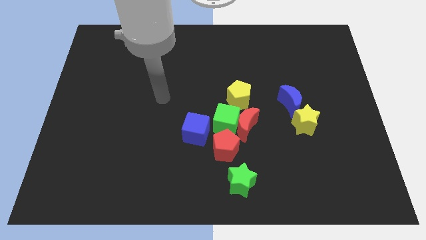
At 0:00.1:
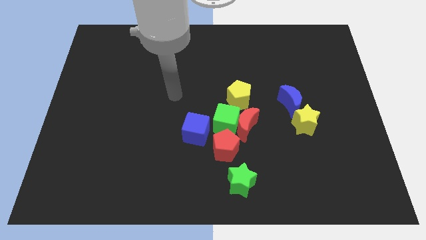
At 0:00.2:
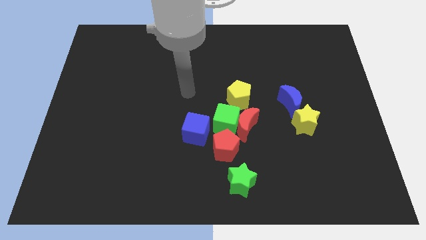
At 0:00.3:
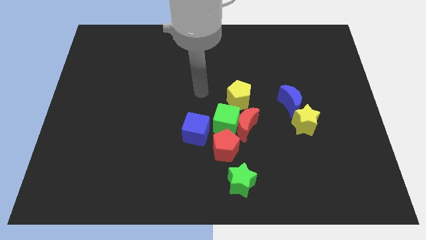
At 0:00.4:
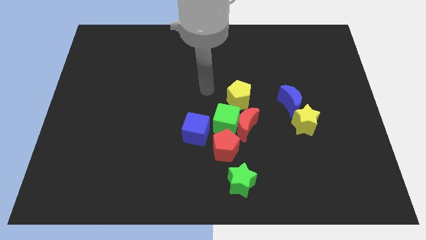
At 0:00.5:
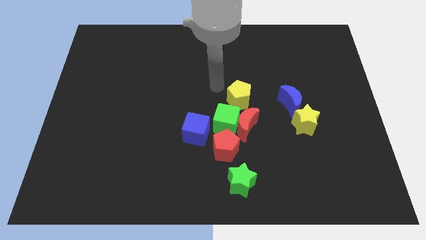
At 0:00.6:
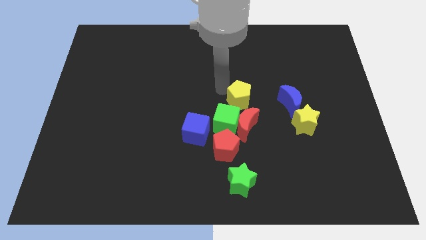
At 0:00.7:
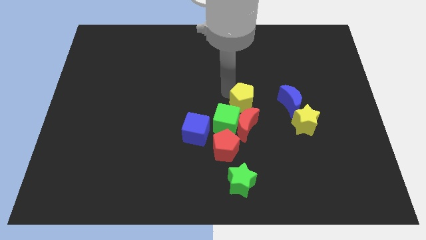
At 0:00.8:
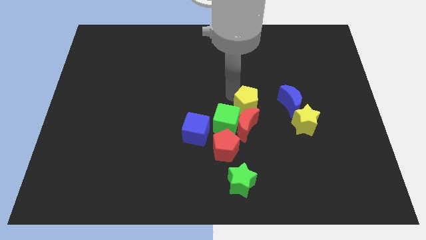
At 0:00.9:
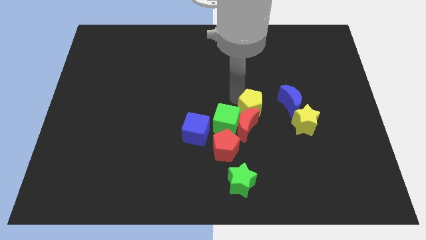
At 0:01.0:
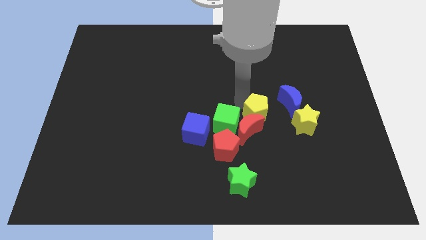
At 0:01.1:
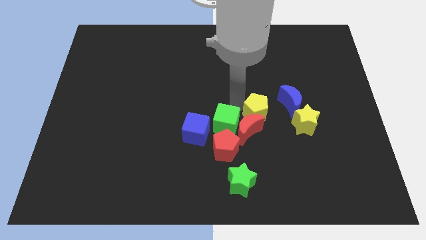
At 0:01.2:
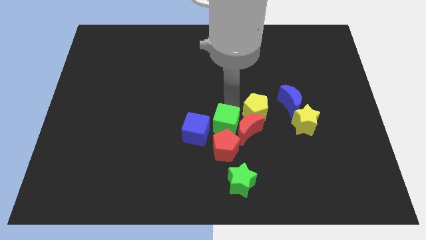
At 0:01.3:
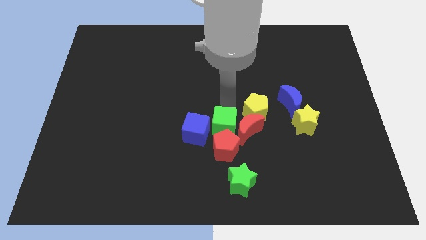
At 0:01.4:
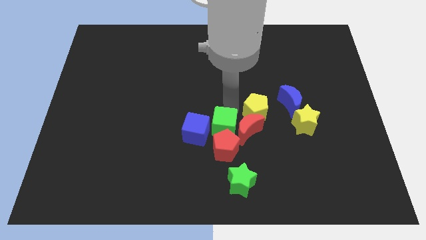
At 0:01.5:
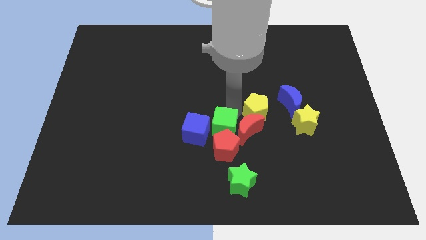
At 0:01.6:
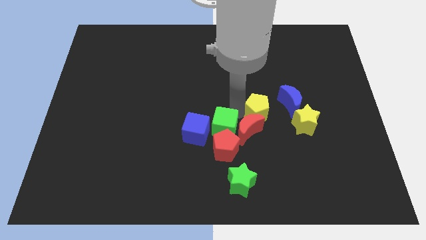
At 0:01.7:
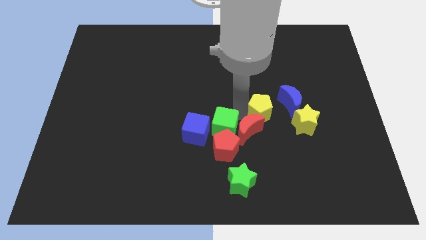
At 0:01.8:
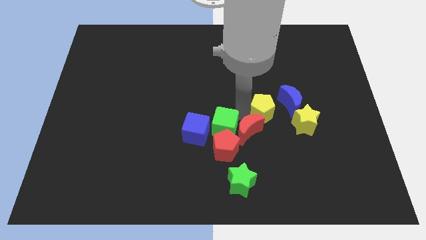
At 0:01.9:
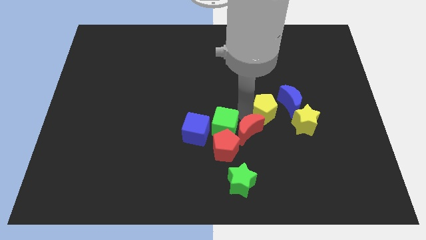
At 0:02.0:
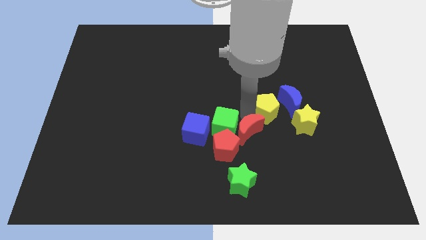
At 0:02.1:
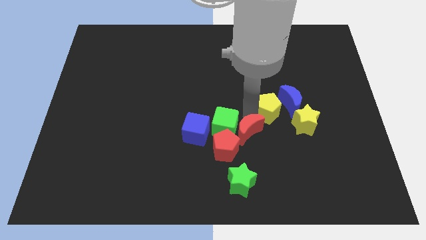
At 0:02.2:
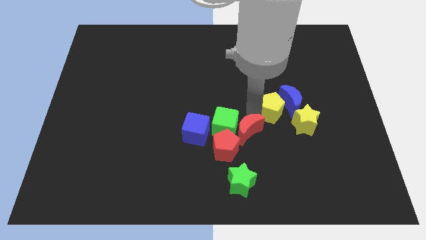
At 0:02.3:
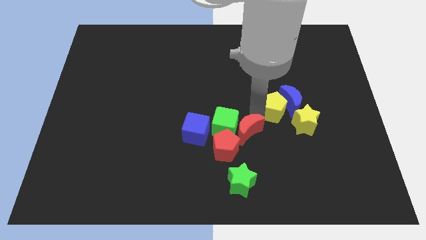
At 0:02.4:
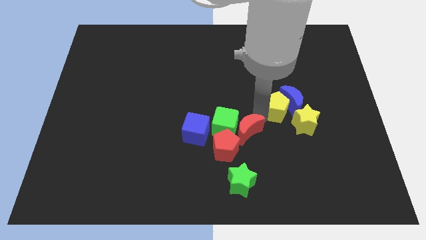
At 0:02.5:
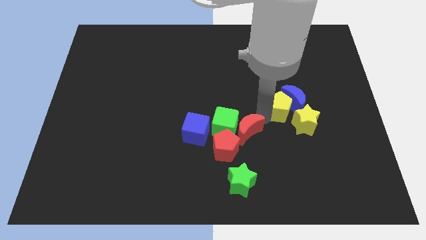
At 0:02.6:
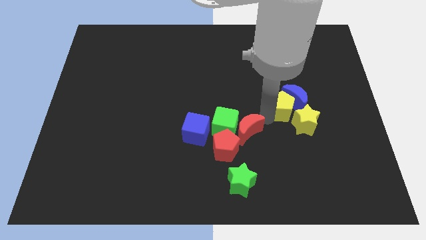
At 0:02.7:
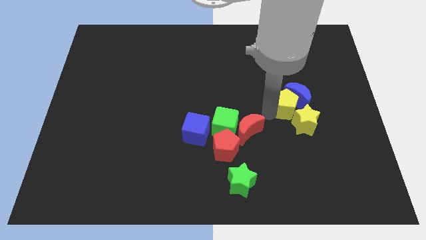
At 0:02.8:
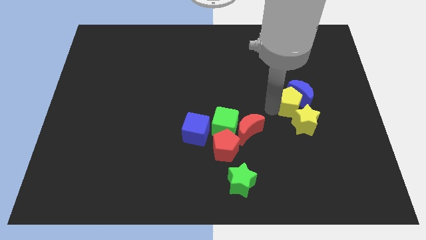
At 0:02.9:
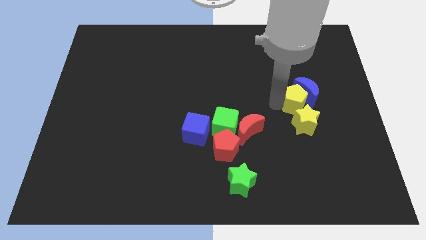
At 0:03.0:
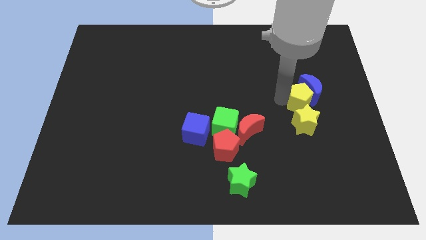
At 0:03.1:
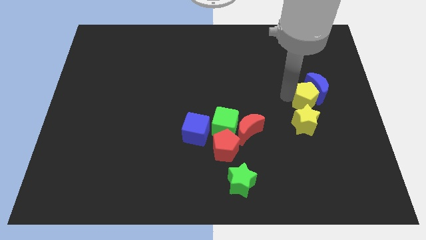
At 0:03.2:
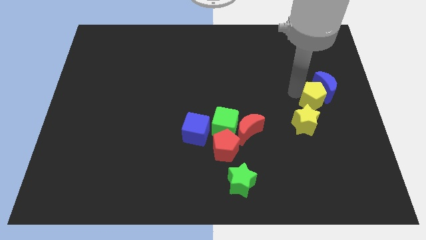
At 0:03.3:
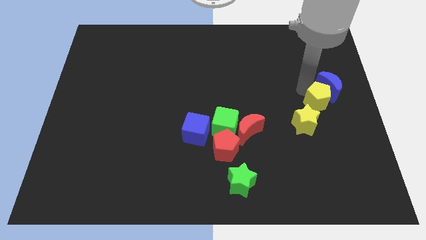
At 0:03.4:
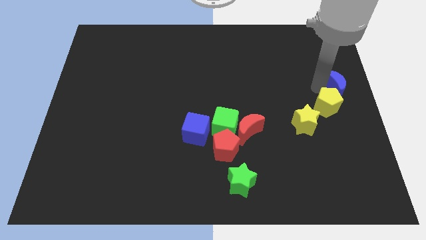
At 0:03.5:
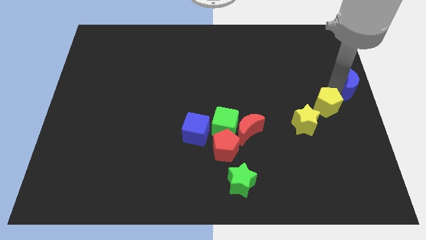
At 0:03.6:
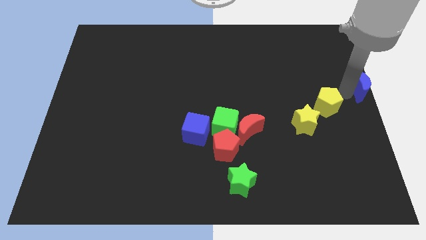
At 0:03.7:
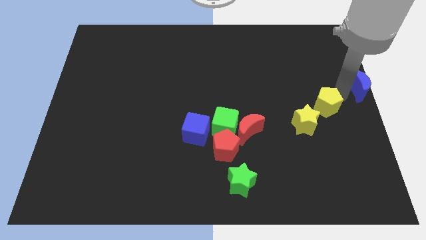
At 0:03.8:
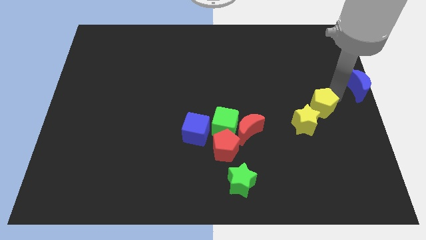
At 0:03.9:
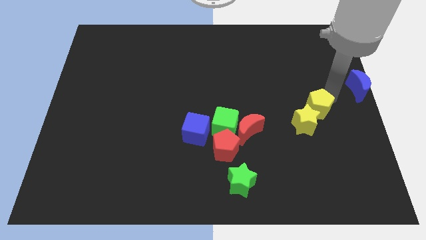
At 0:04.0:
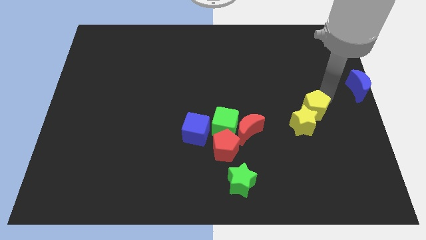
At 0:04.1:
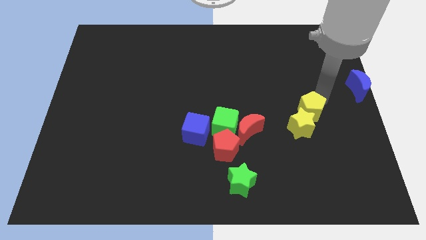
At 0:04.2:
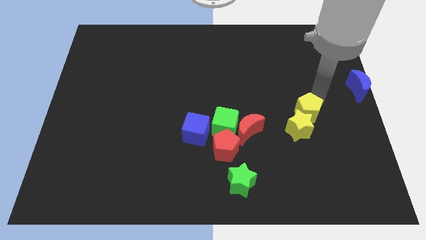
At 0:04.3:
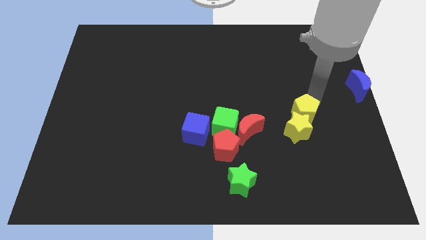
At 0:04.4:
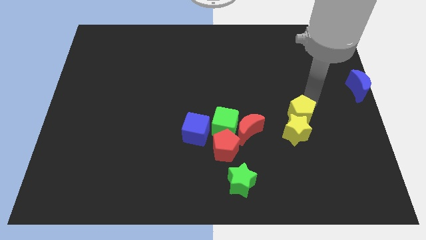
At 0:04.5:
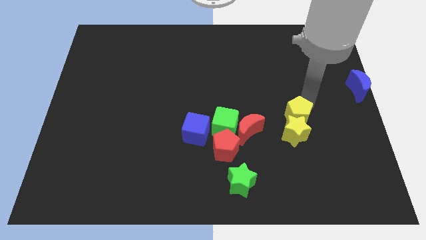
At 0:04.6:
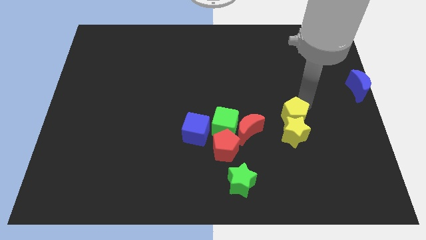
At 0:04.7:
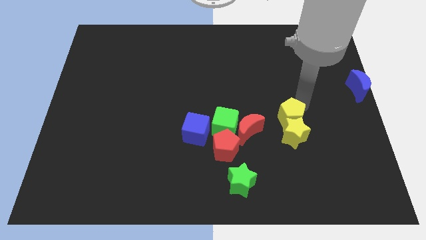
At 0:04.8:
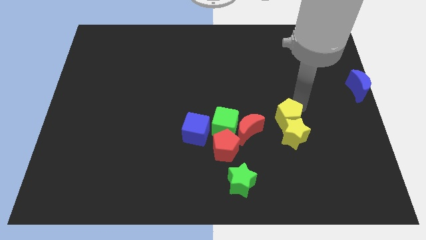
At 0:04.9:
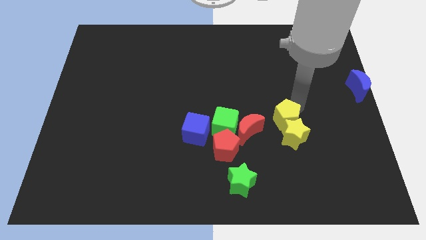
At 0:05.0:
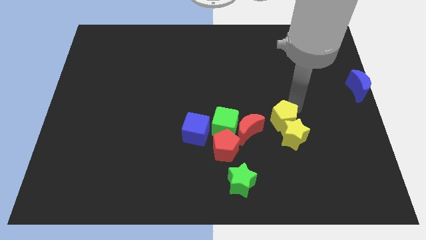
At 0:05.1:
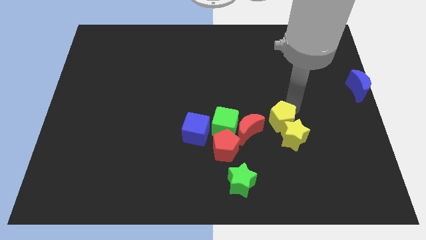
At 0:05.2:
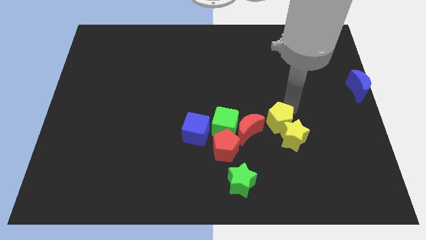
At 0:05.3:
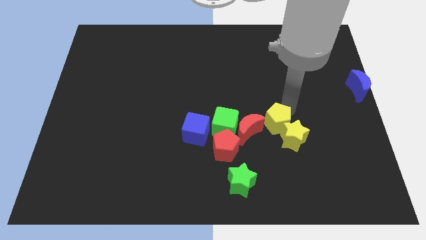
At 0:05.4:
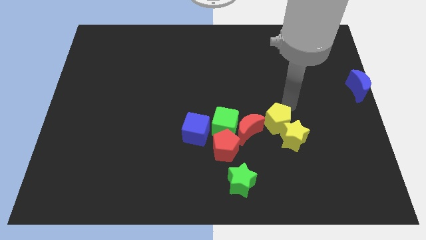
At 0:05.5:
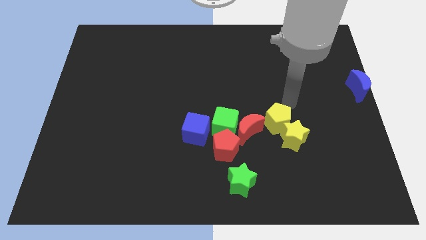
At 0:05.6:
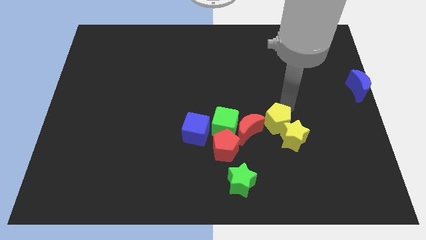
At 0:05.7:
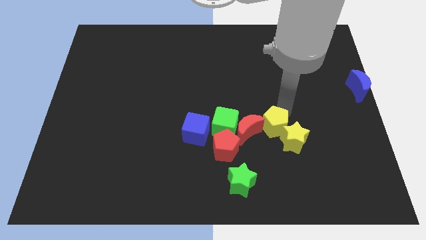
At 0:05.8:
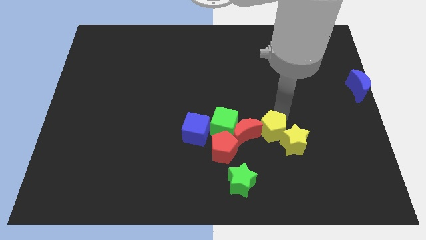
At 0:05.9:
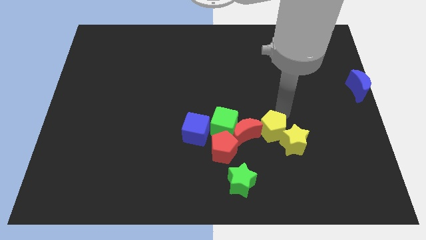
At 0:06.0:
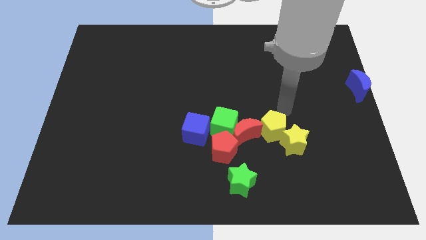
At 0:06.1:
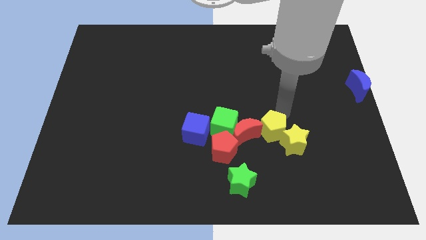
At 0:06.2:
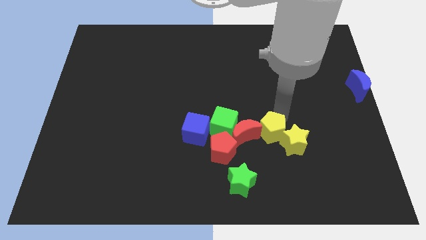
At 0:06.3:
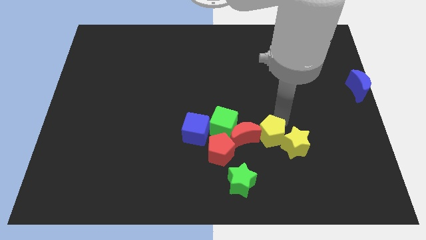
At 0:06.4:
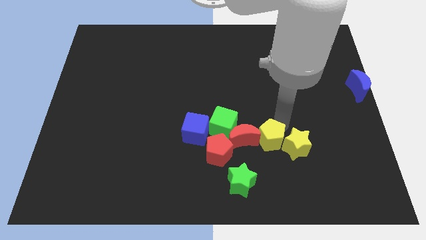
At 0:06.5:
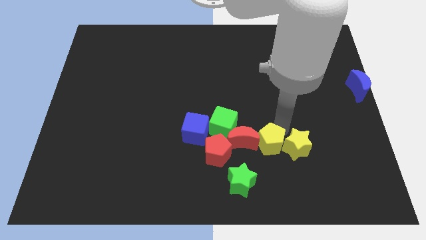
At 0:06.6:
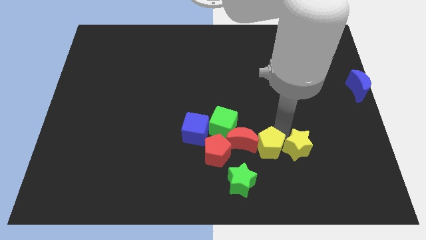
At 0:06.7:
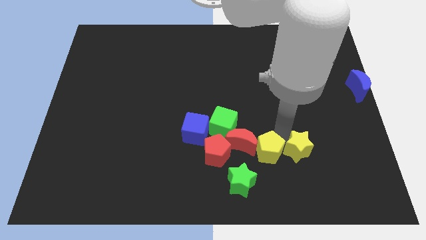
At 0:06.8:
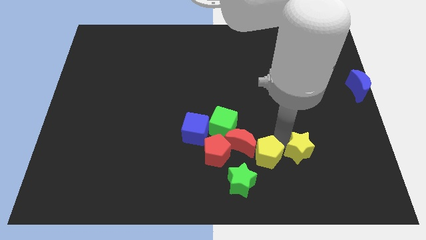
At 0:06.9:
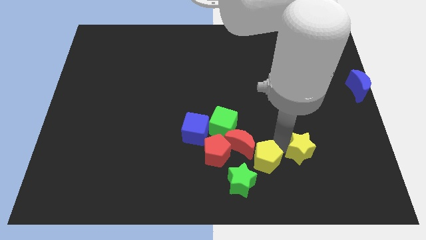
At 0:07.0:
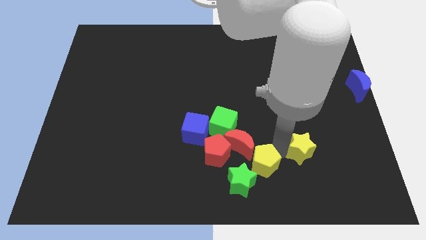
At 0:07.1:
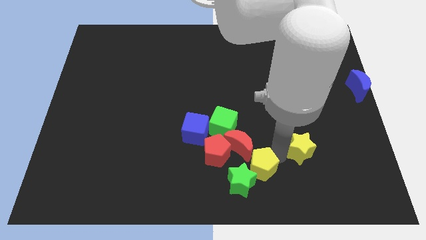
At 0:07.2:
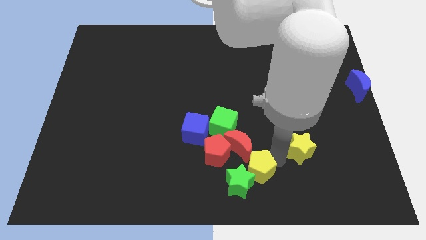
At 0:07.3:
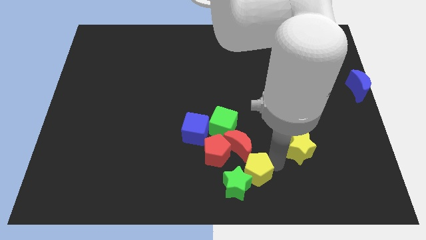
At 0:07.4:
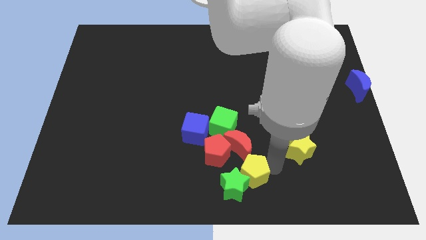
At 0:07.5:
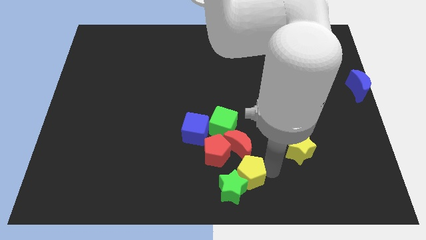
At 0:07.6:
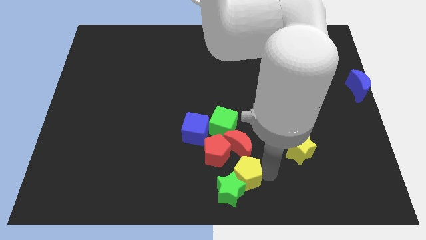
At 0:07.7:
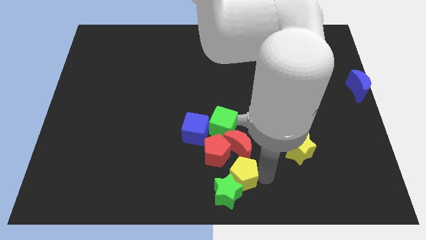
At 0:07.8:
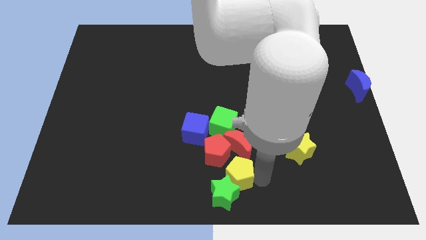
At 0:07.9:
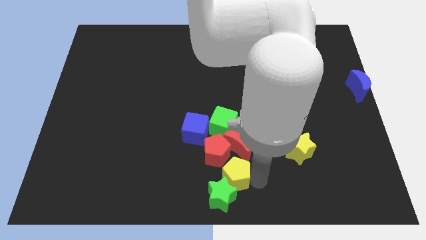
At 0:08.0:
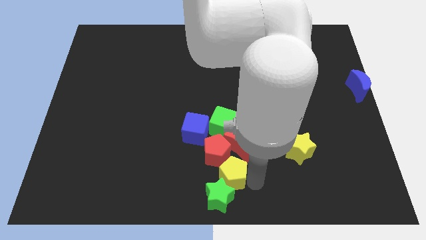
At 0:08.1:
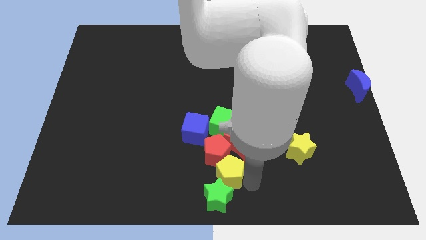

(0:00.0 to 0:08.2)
push the yellow pentagon close to the red pentagon
